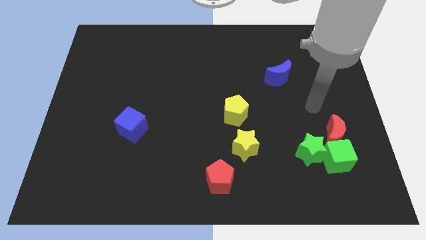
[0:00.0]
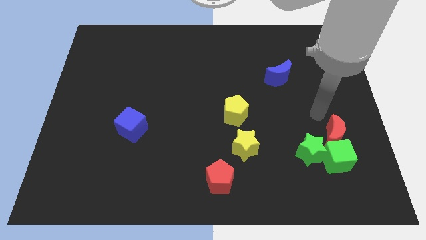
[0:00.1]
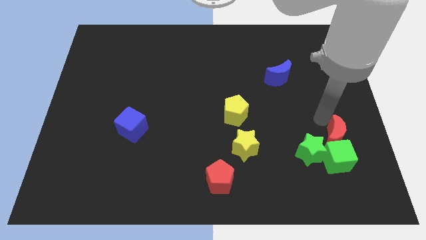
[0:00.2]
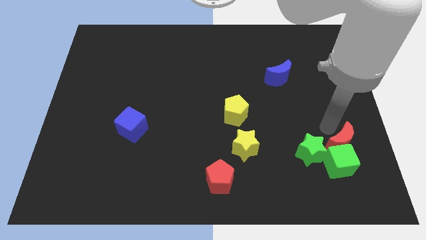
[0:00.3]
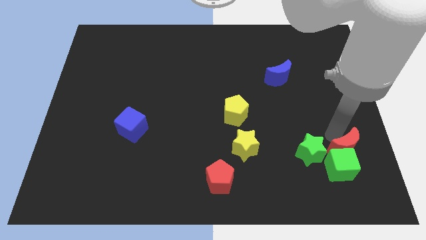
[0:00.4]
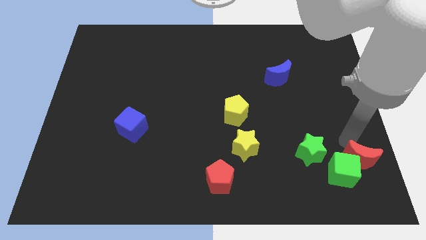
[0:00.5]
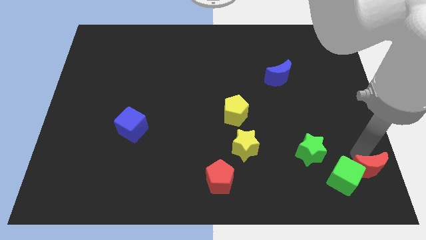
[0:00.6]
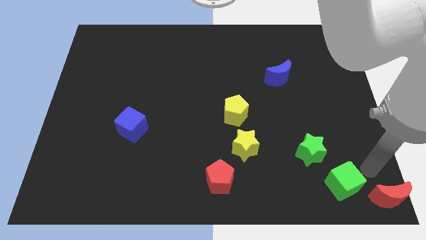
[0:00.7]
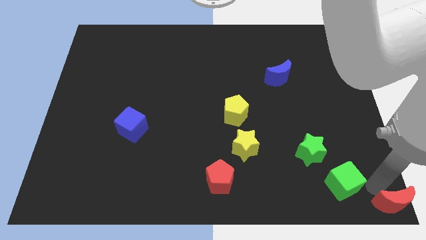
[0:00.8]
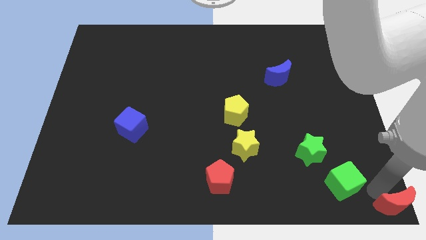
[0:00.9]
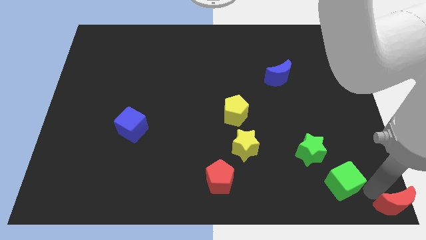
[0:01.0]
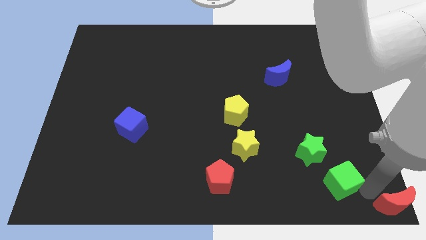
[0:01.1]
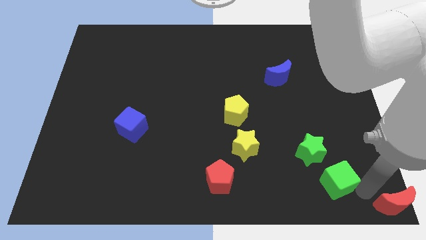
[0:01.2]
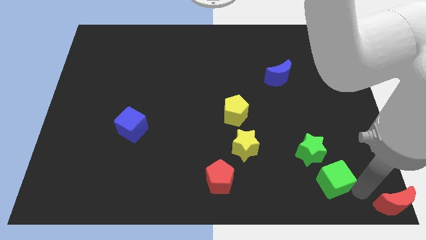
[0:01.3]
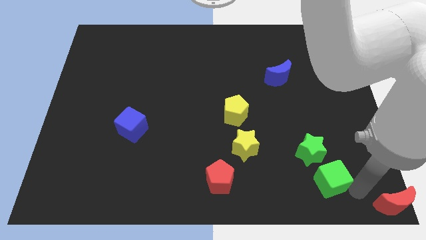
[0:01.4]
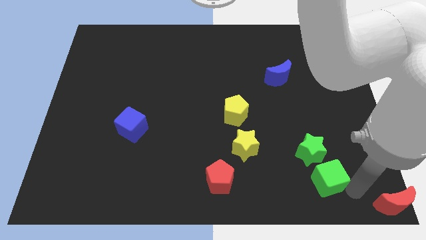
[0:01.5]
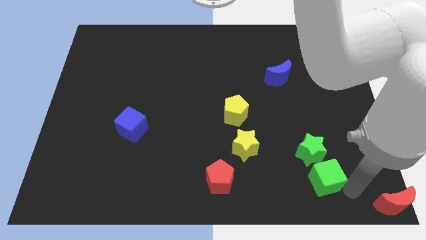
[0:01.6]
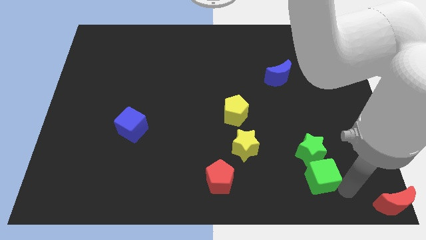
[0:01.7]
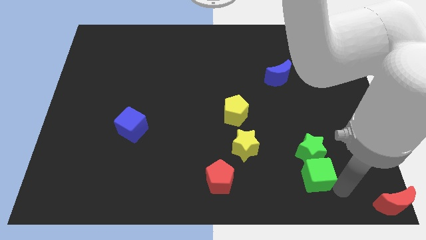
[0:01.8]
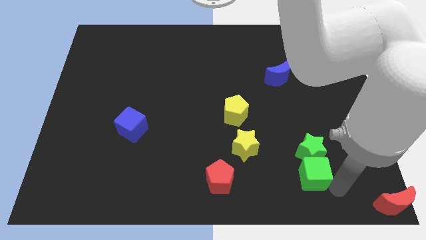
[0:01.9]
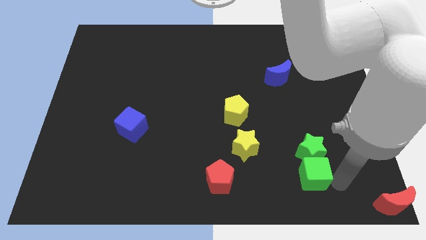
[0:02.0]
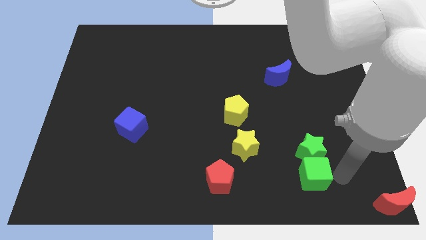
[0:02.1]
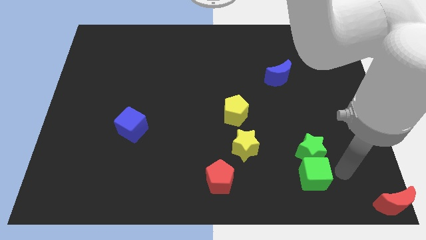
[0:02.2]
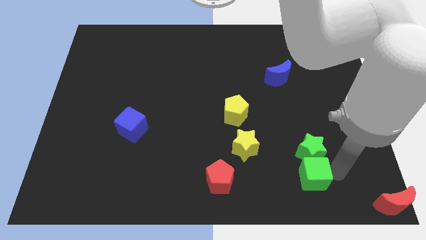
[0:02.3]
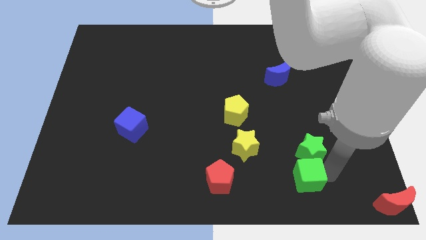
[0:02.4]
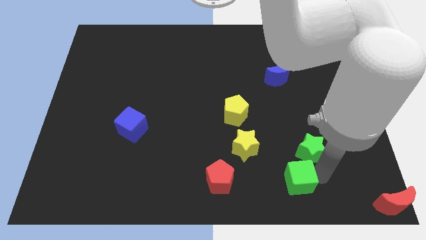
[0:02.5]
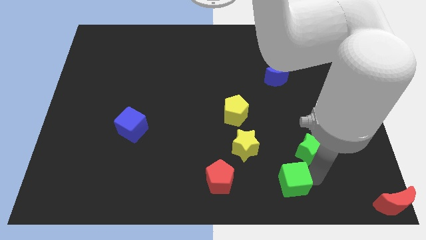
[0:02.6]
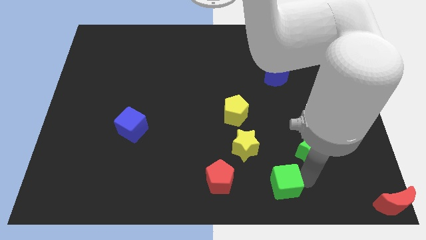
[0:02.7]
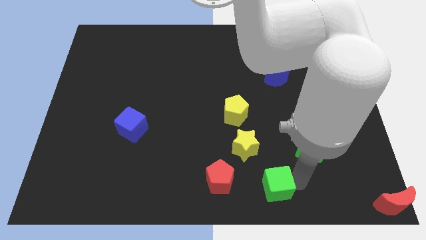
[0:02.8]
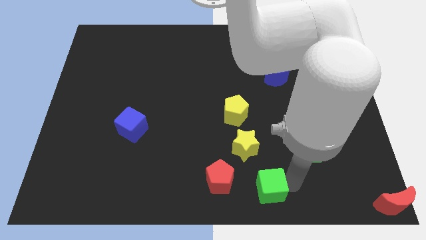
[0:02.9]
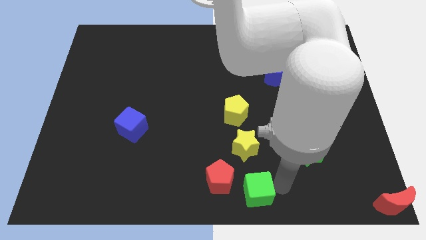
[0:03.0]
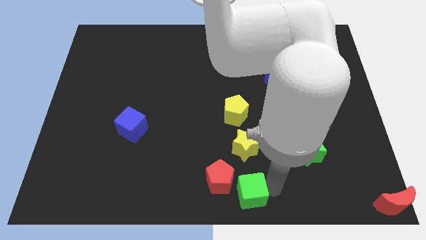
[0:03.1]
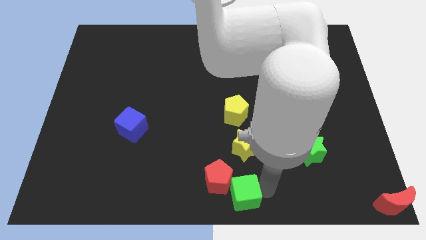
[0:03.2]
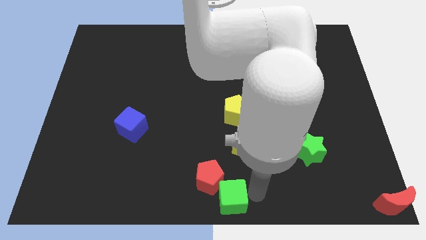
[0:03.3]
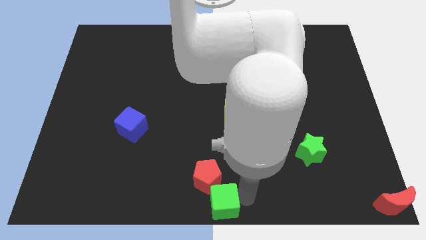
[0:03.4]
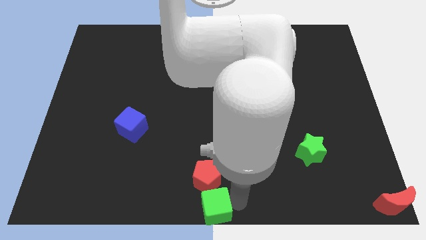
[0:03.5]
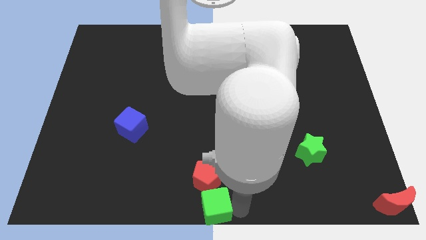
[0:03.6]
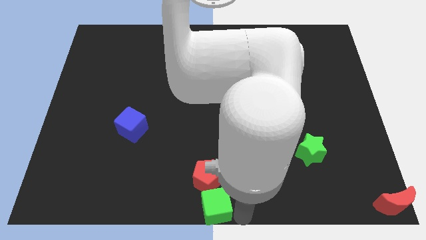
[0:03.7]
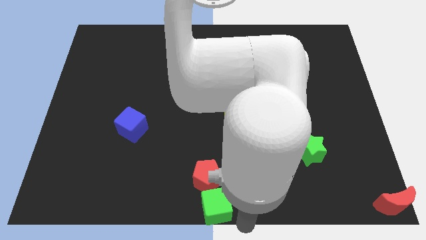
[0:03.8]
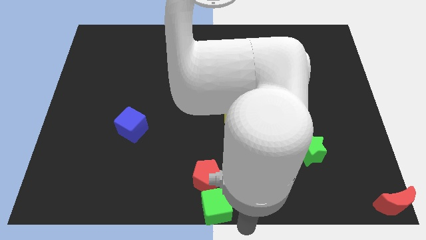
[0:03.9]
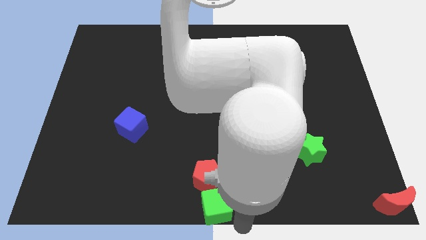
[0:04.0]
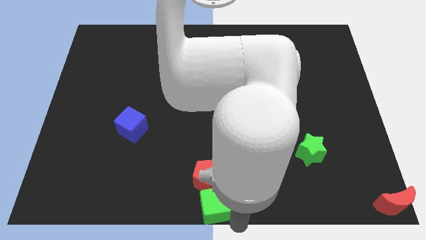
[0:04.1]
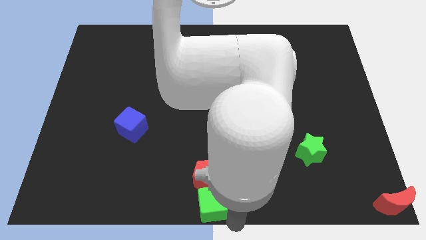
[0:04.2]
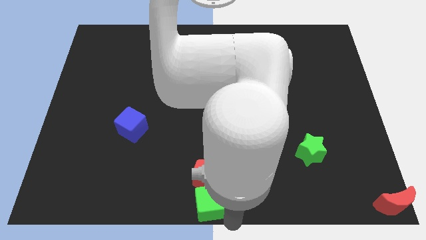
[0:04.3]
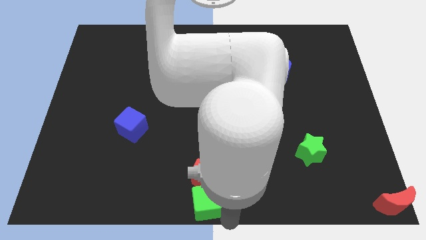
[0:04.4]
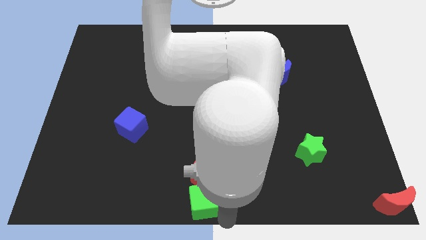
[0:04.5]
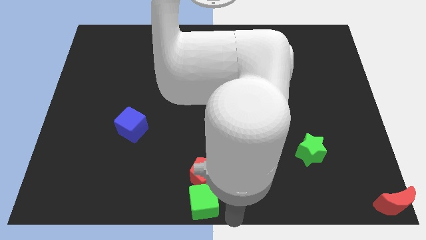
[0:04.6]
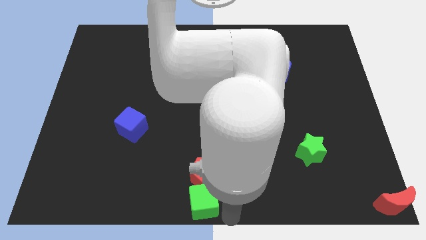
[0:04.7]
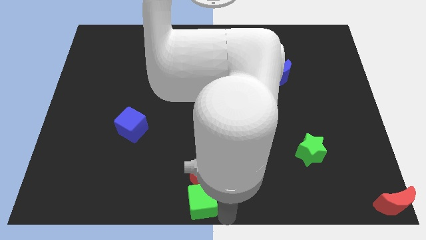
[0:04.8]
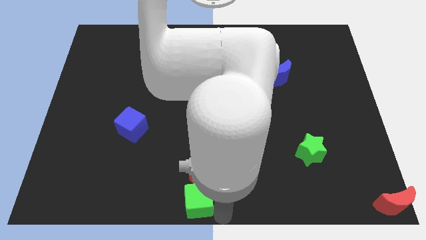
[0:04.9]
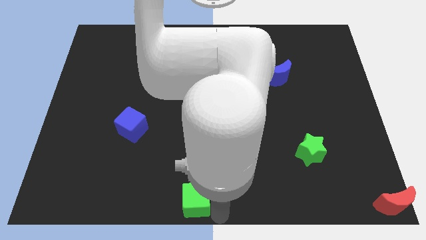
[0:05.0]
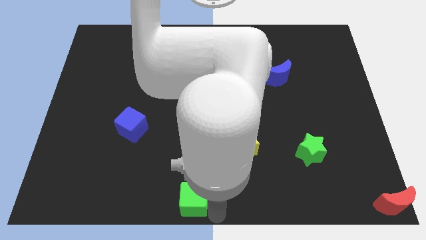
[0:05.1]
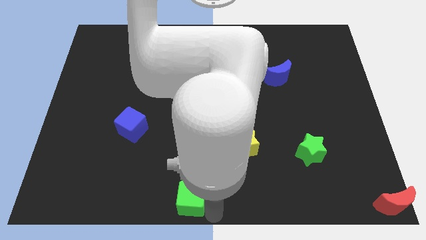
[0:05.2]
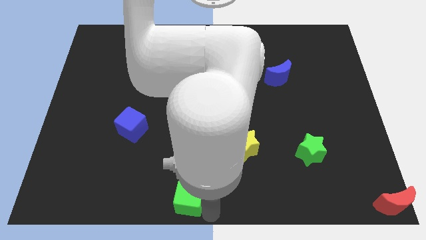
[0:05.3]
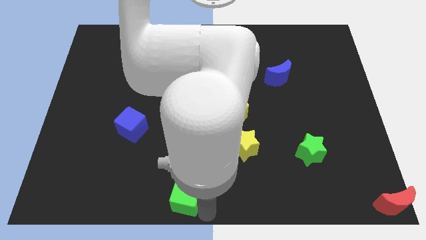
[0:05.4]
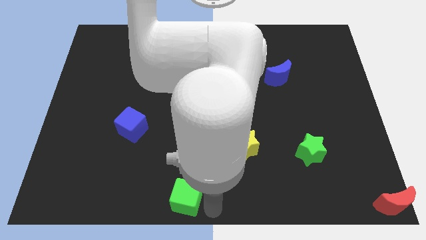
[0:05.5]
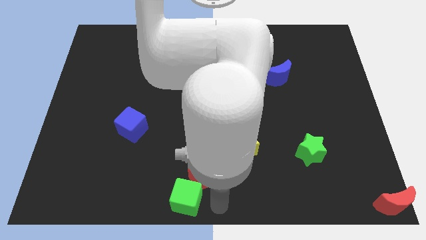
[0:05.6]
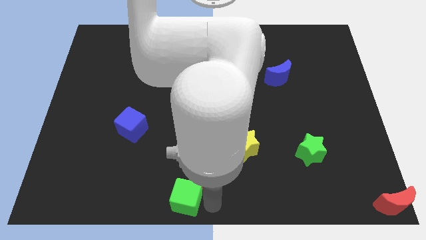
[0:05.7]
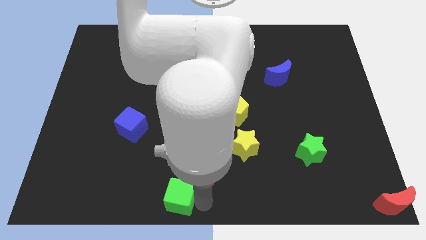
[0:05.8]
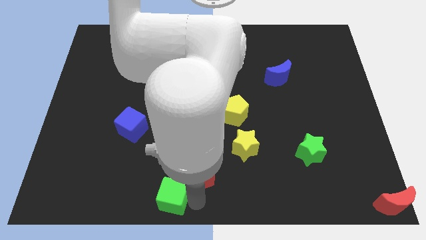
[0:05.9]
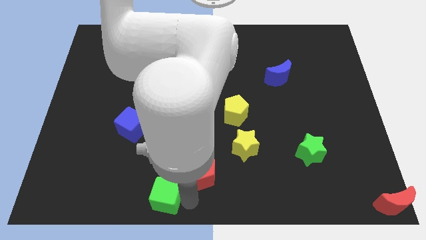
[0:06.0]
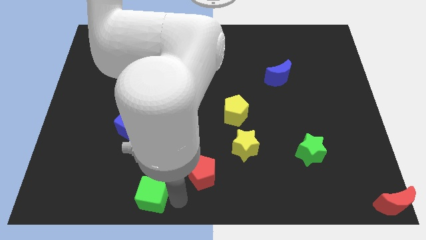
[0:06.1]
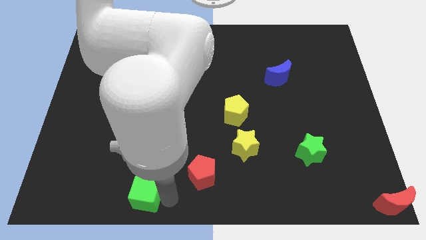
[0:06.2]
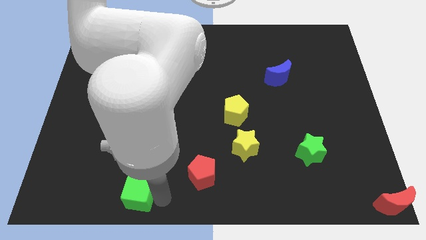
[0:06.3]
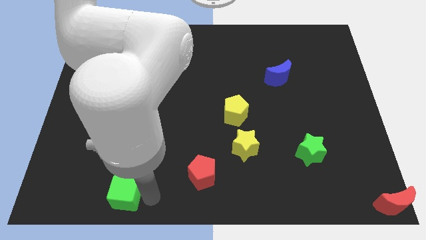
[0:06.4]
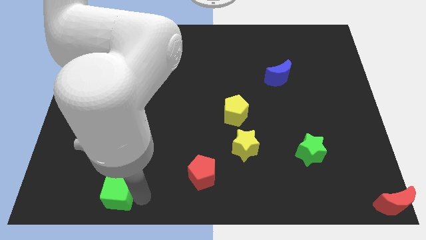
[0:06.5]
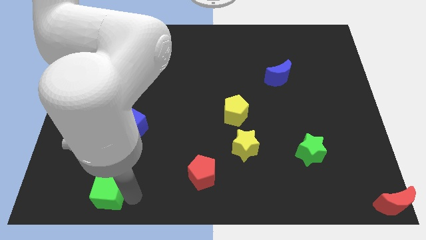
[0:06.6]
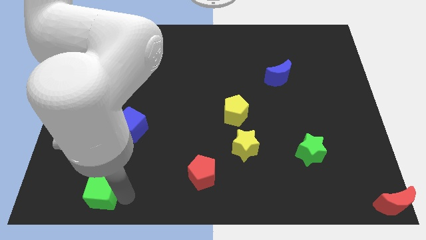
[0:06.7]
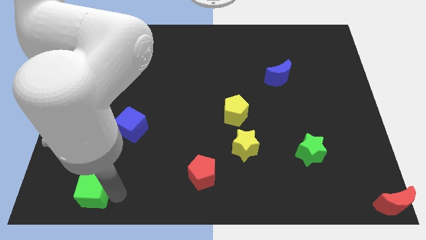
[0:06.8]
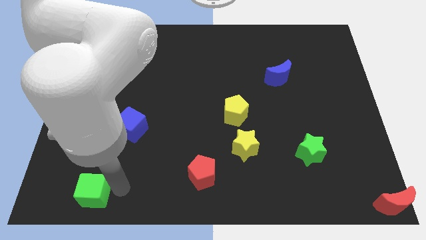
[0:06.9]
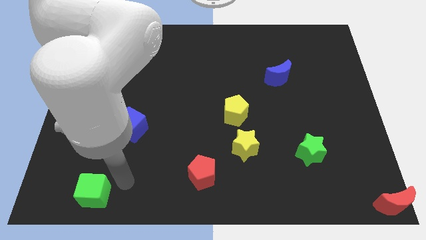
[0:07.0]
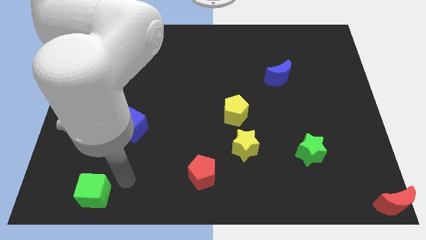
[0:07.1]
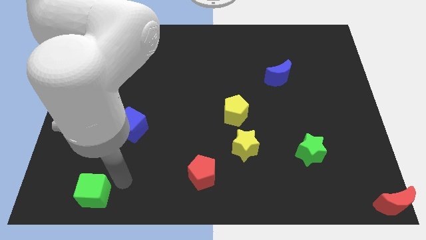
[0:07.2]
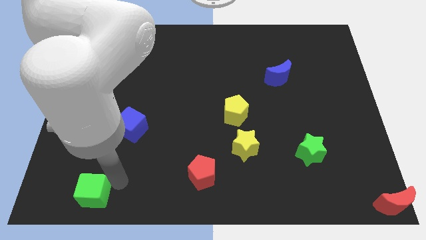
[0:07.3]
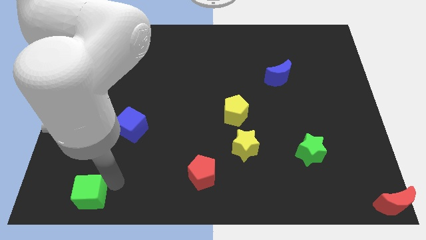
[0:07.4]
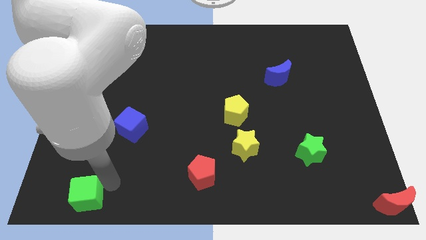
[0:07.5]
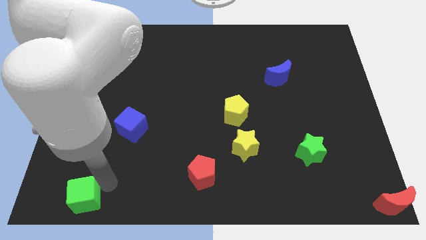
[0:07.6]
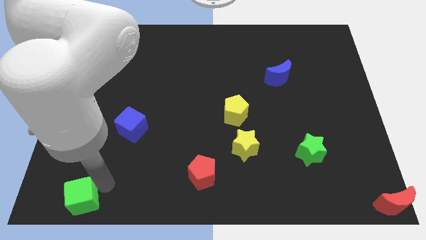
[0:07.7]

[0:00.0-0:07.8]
slide the green cube to the bottom left of the board
